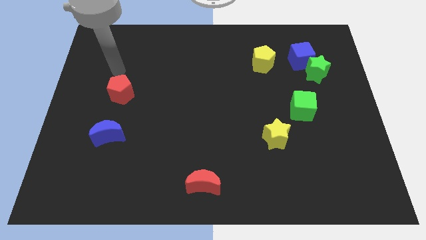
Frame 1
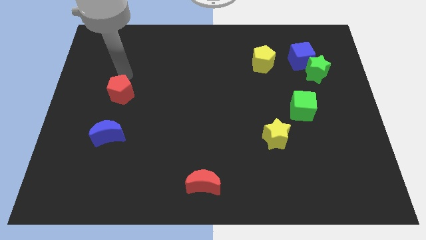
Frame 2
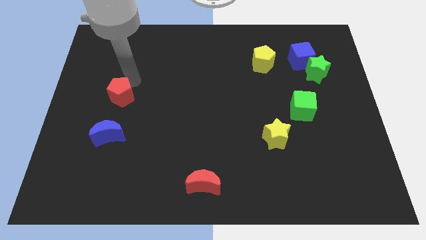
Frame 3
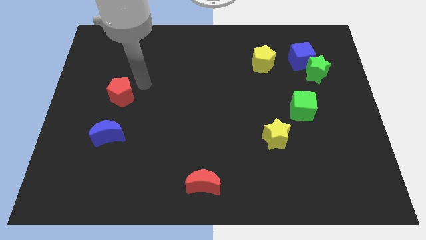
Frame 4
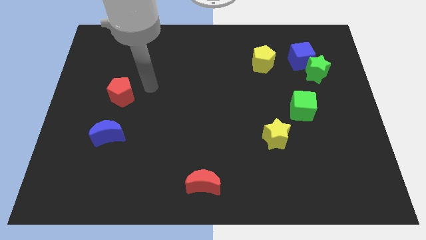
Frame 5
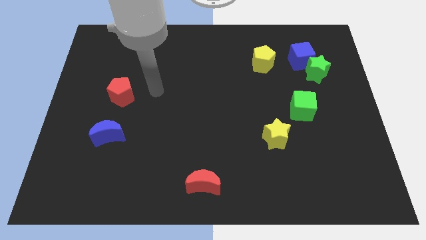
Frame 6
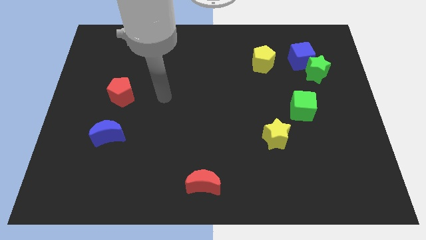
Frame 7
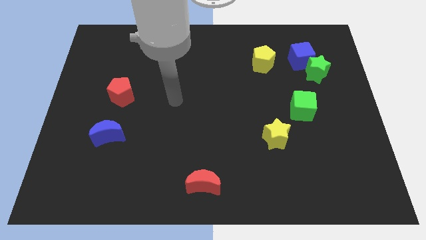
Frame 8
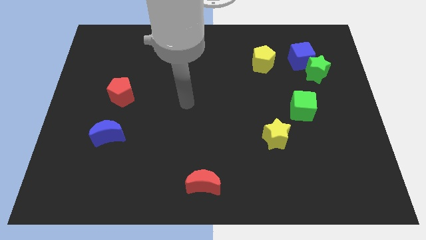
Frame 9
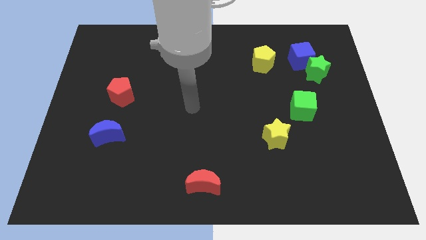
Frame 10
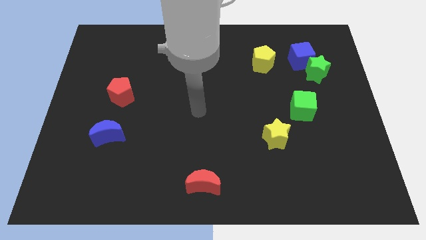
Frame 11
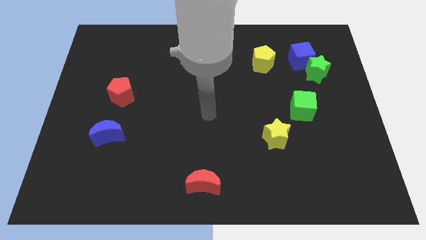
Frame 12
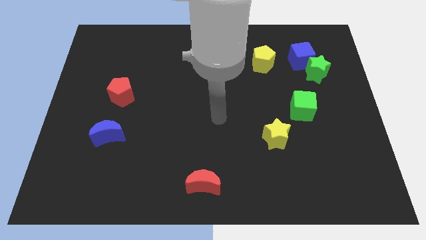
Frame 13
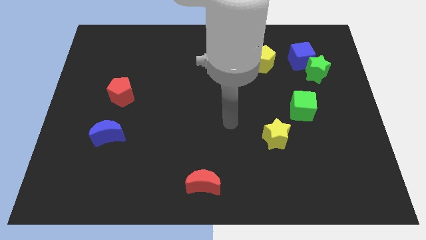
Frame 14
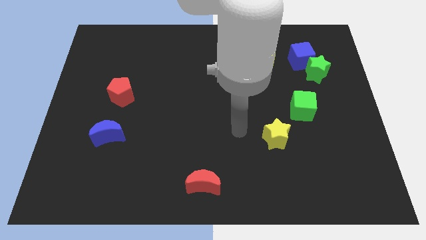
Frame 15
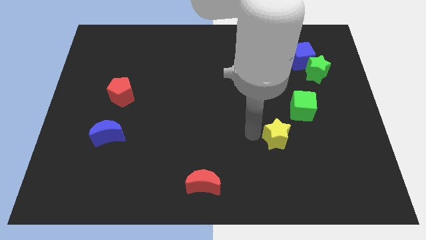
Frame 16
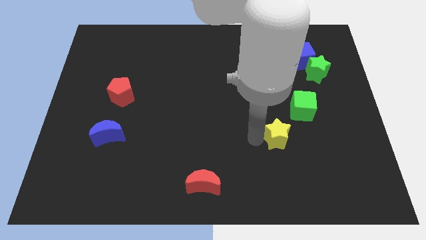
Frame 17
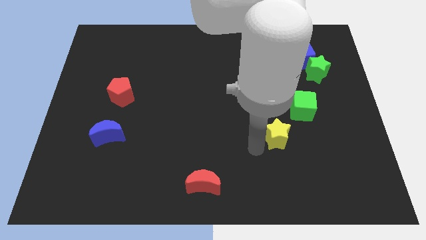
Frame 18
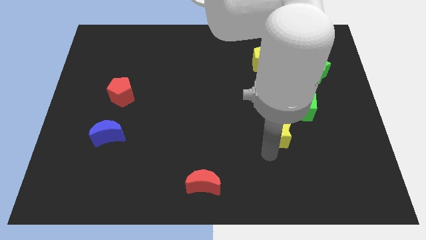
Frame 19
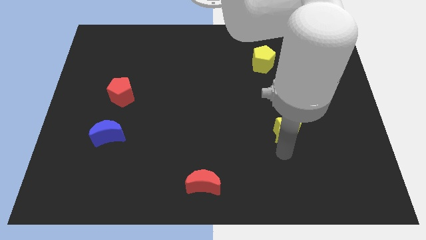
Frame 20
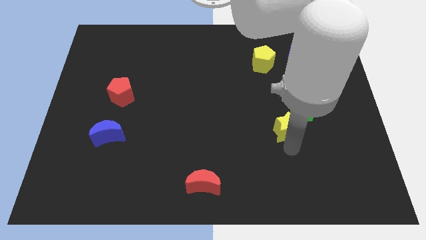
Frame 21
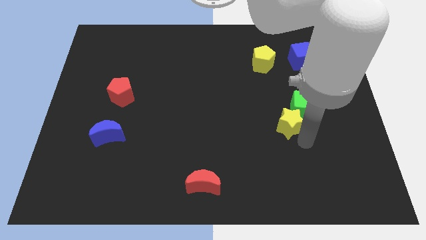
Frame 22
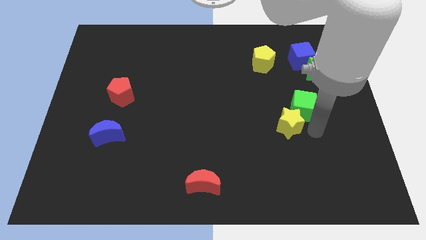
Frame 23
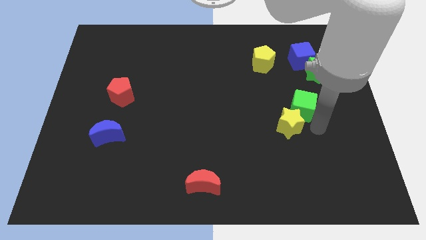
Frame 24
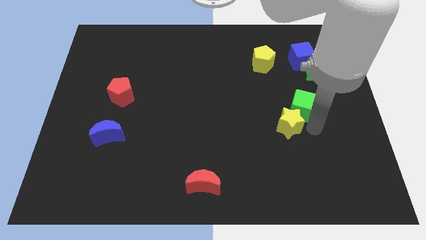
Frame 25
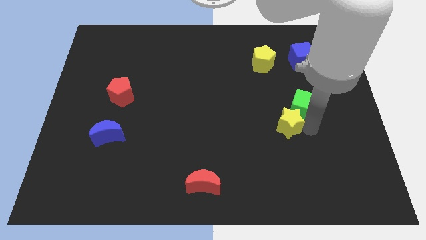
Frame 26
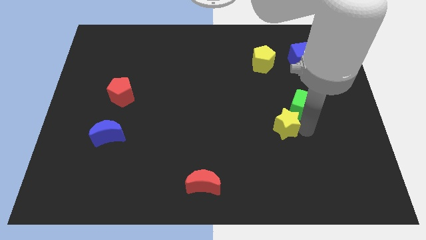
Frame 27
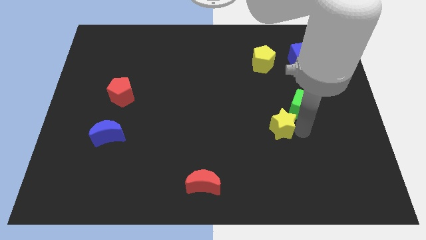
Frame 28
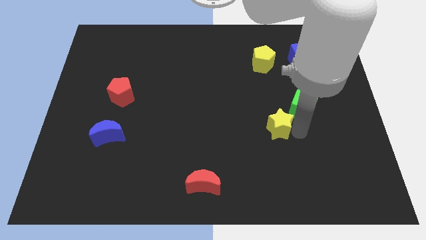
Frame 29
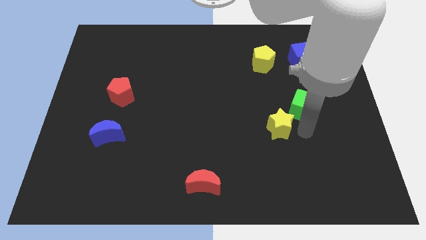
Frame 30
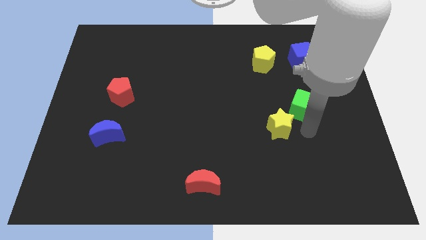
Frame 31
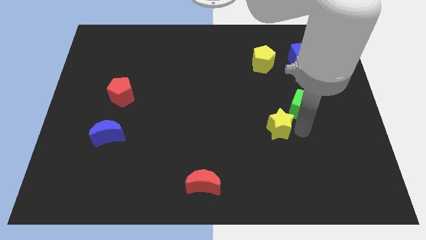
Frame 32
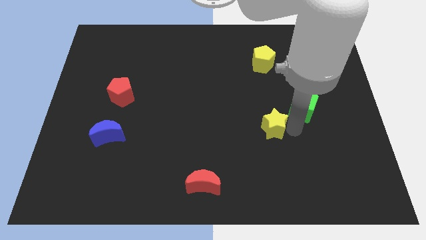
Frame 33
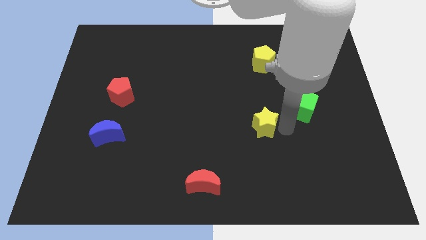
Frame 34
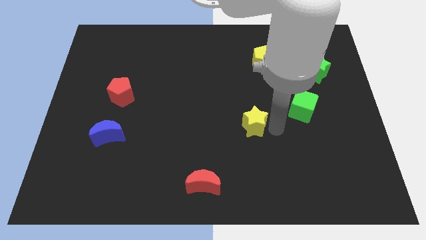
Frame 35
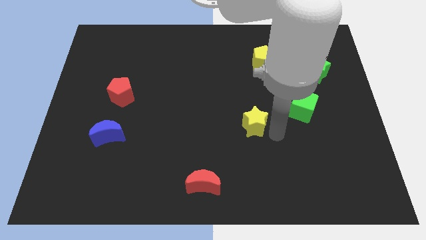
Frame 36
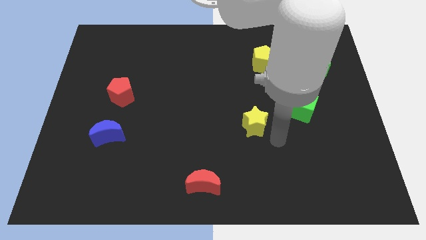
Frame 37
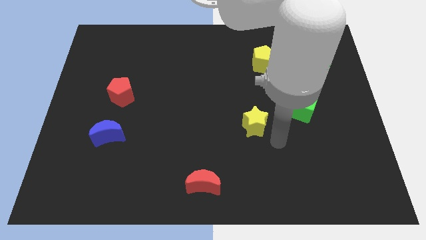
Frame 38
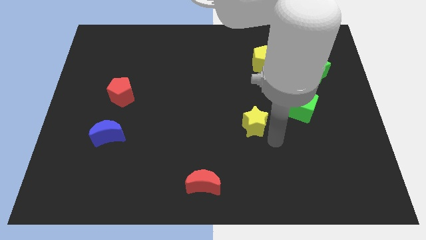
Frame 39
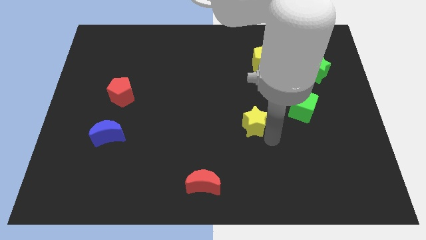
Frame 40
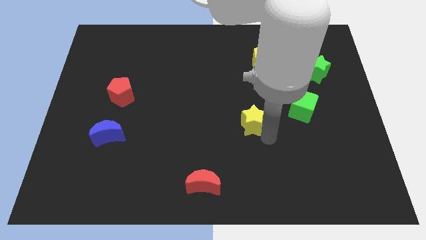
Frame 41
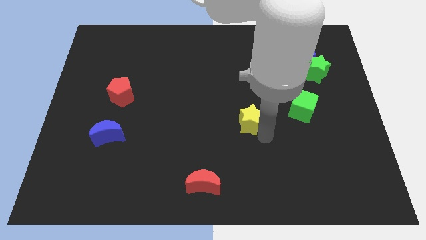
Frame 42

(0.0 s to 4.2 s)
slightly move the yellow star diagonally upwards and to the left

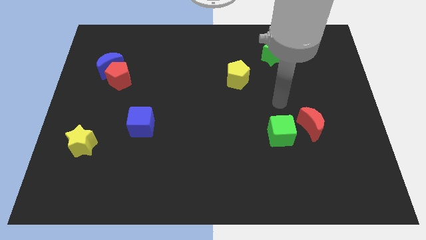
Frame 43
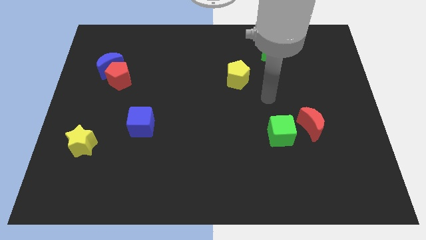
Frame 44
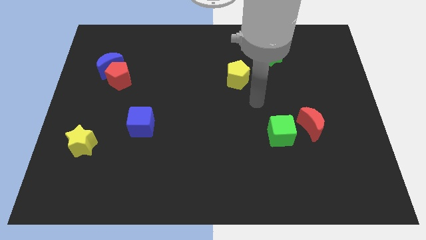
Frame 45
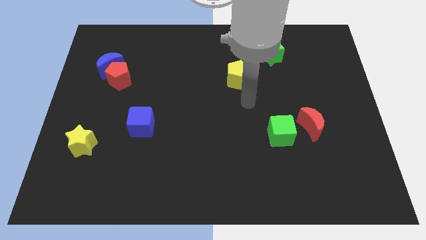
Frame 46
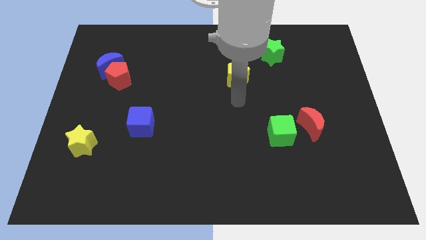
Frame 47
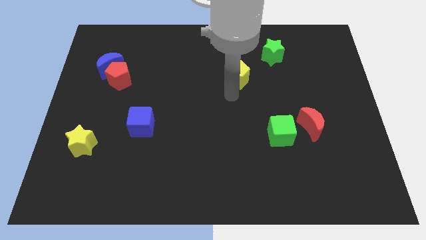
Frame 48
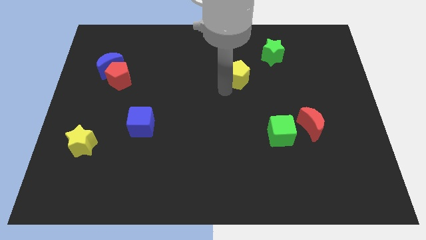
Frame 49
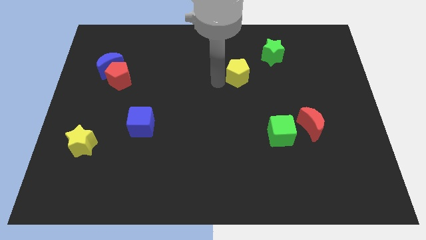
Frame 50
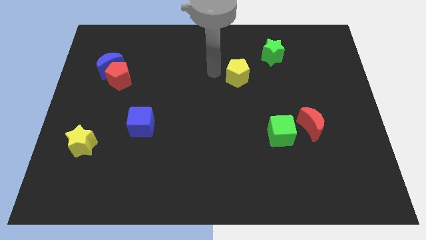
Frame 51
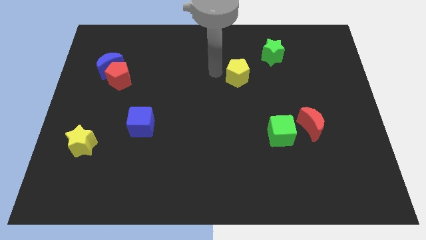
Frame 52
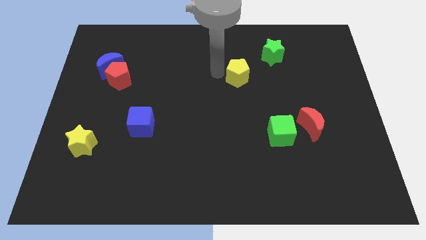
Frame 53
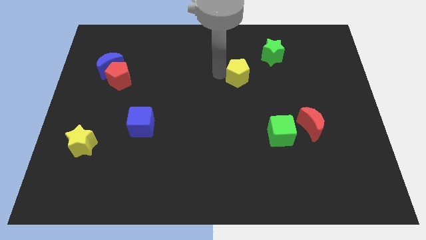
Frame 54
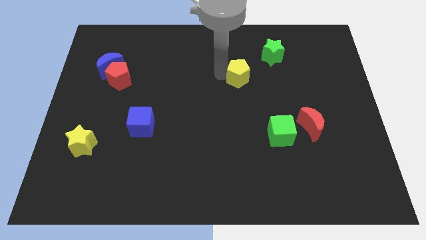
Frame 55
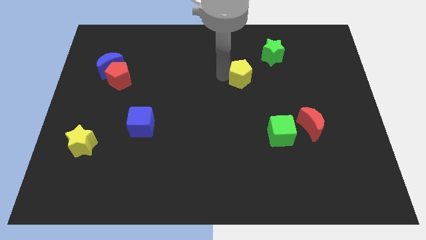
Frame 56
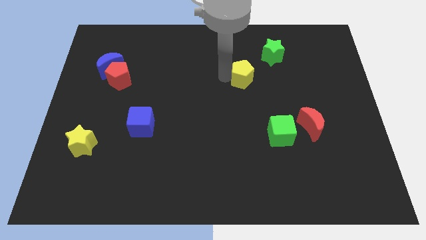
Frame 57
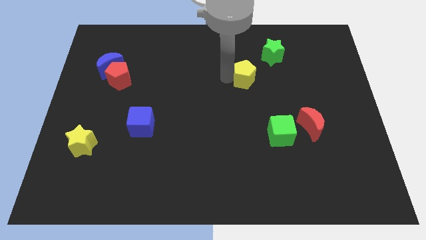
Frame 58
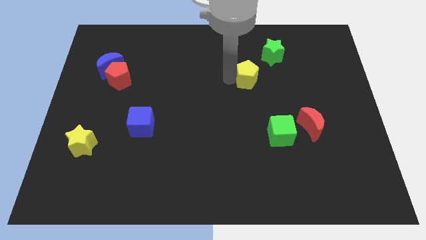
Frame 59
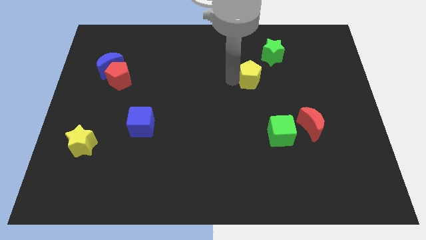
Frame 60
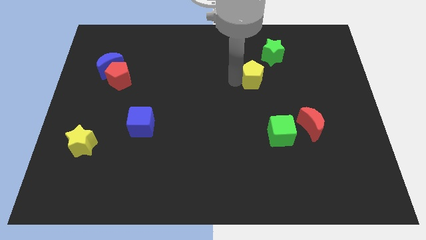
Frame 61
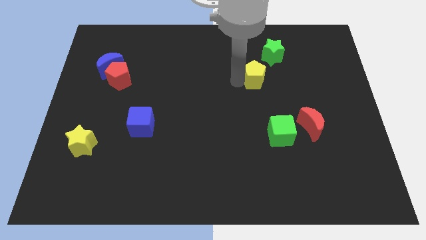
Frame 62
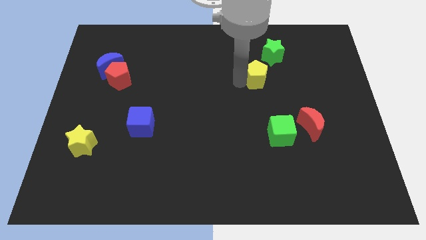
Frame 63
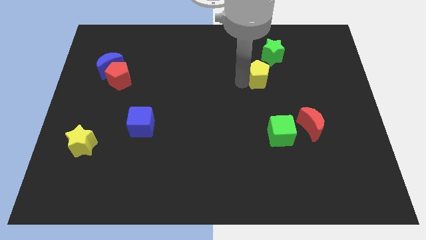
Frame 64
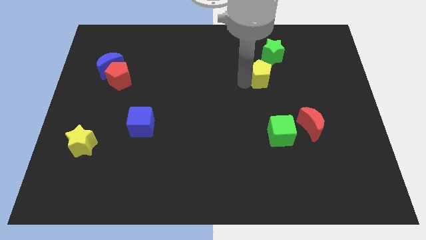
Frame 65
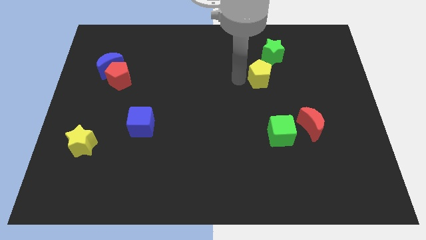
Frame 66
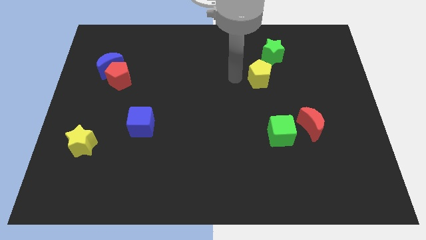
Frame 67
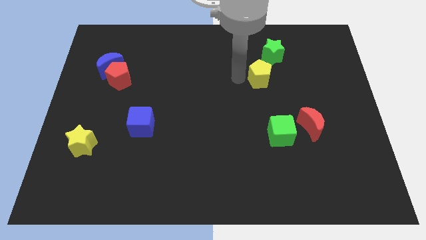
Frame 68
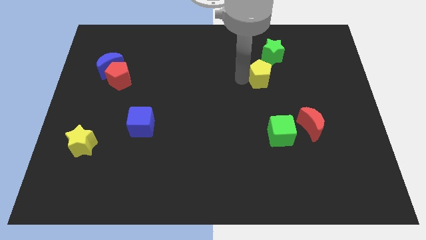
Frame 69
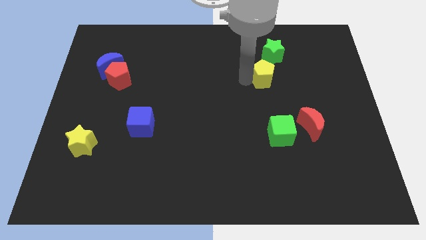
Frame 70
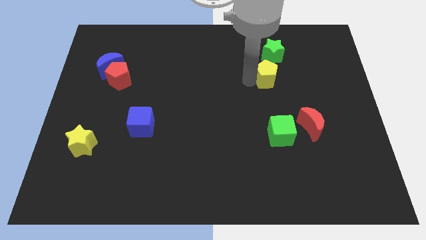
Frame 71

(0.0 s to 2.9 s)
push the yellow pentagon right slightly

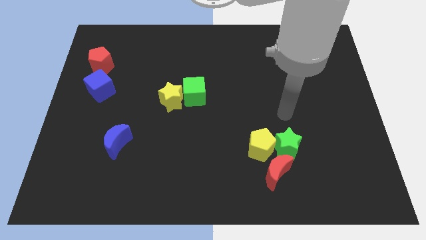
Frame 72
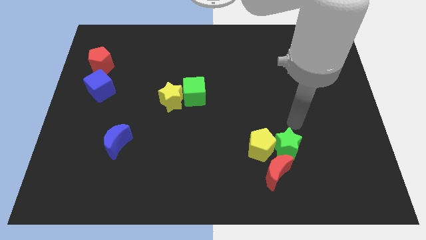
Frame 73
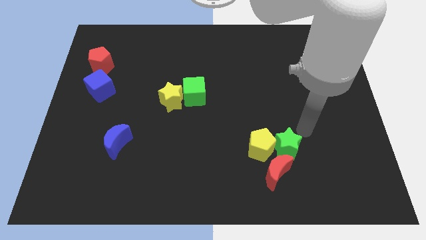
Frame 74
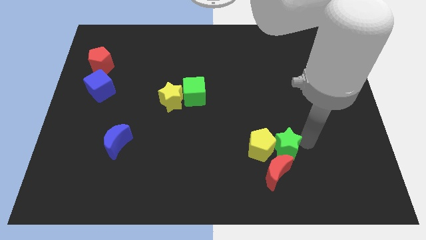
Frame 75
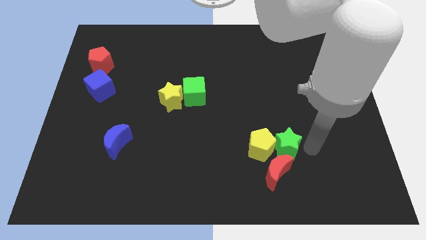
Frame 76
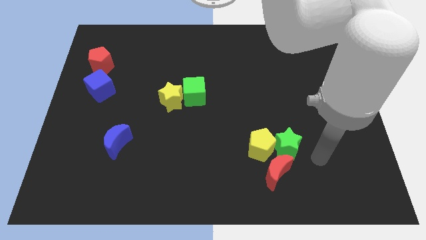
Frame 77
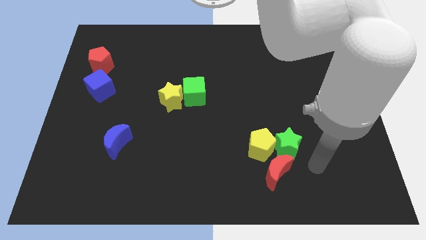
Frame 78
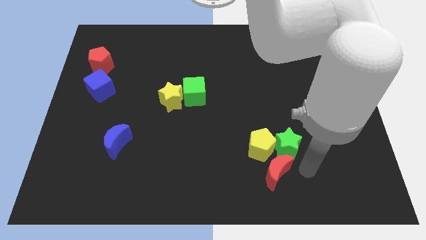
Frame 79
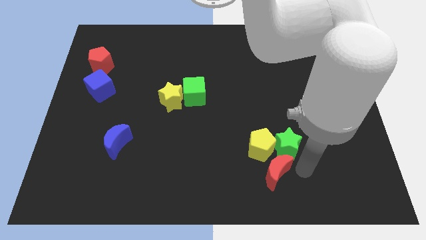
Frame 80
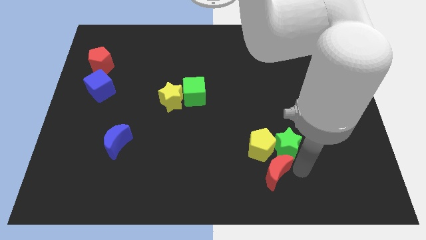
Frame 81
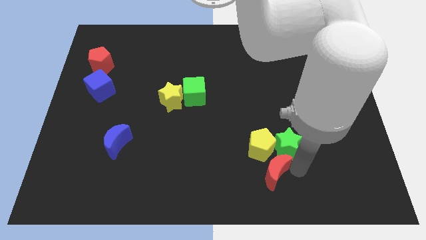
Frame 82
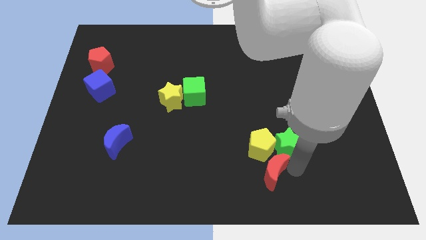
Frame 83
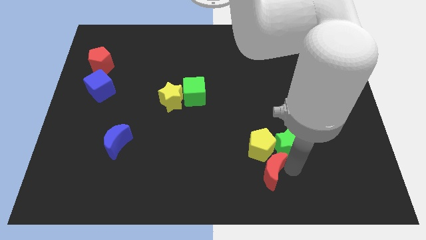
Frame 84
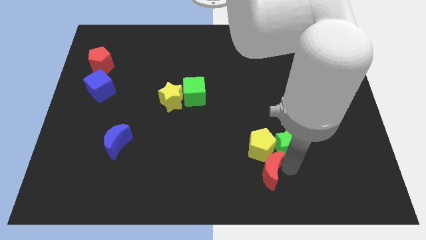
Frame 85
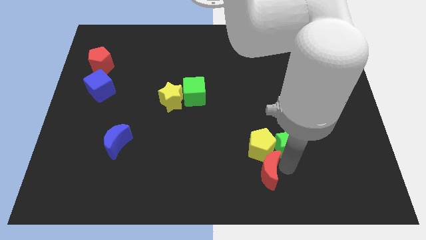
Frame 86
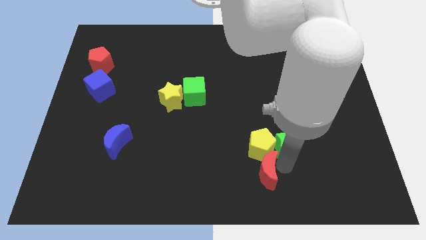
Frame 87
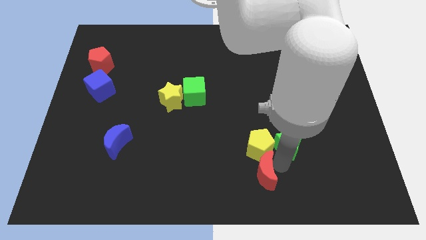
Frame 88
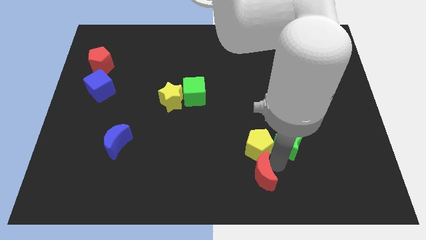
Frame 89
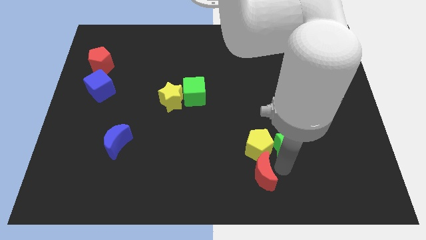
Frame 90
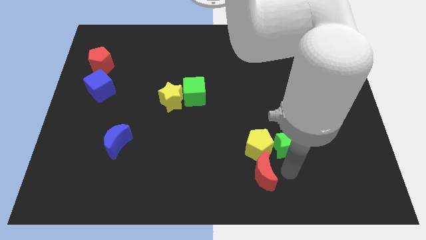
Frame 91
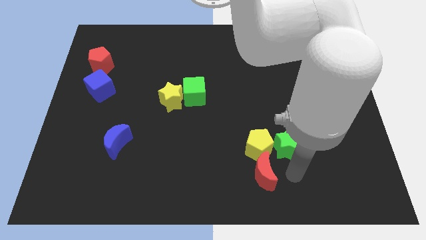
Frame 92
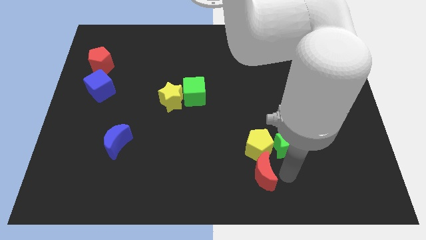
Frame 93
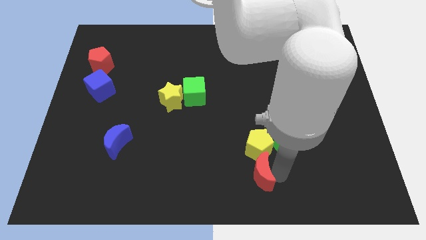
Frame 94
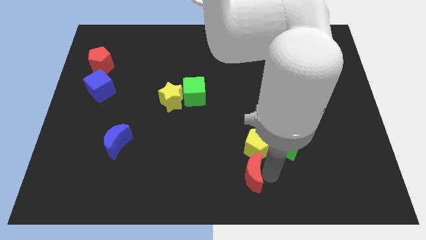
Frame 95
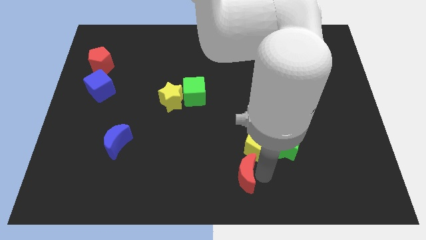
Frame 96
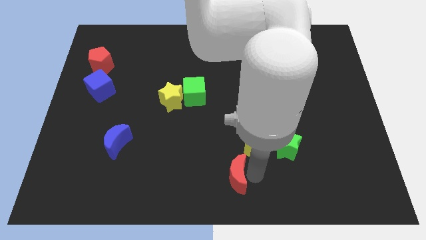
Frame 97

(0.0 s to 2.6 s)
push the red moon a little bit to the left
